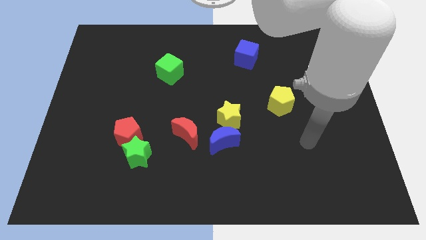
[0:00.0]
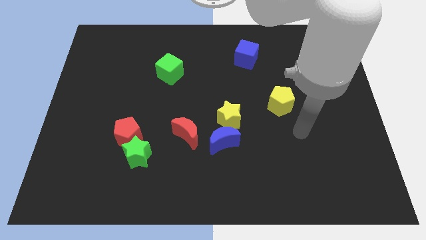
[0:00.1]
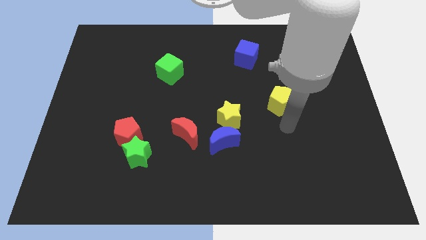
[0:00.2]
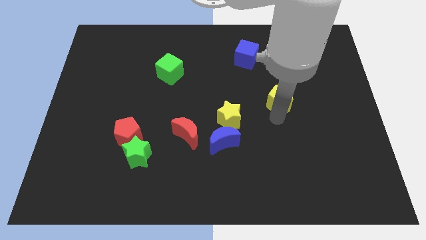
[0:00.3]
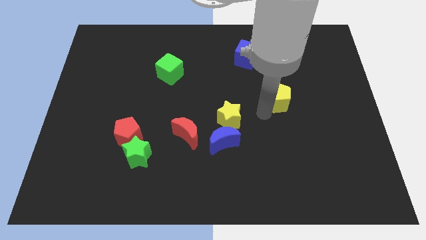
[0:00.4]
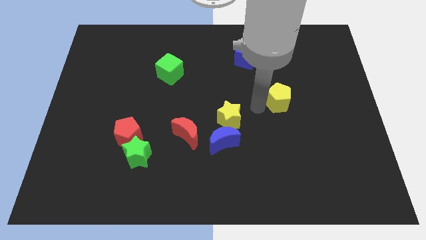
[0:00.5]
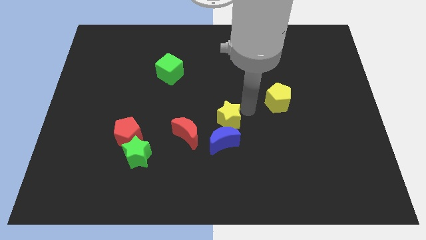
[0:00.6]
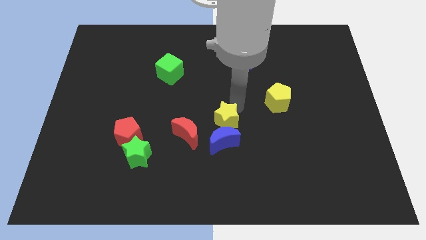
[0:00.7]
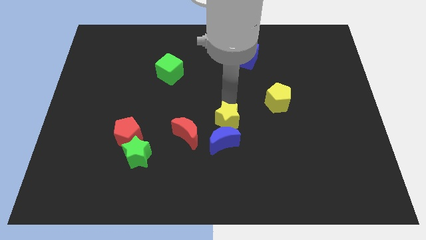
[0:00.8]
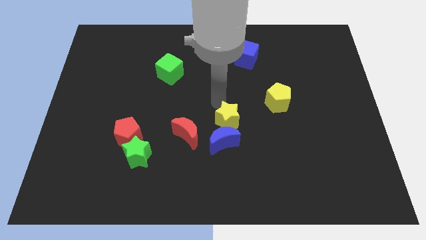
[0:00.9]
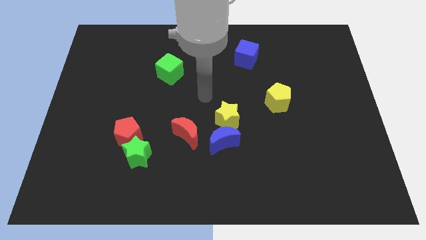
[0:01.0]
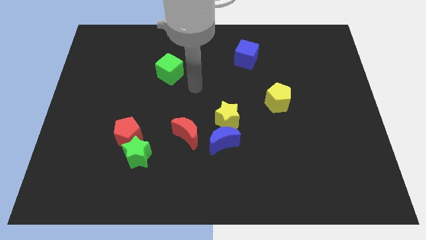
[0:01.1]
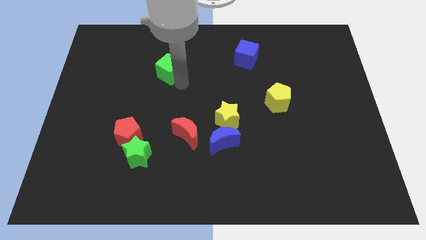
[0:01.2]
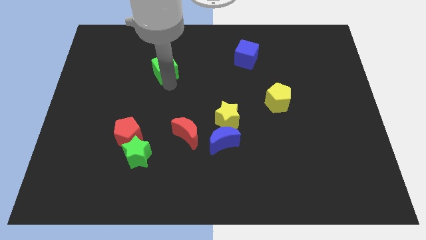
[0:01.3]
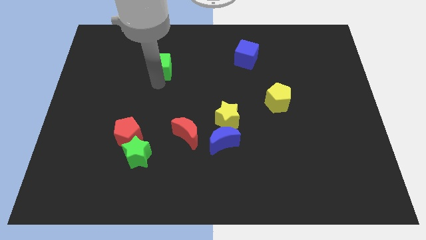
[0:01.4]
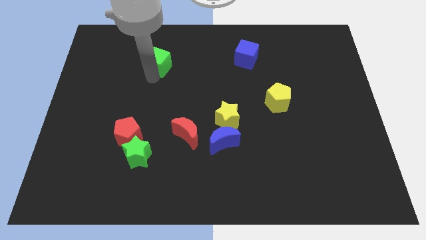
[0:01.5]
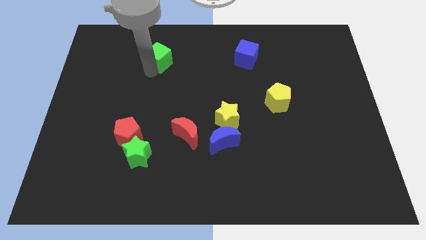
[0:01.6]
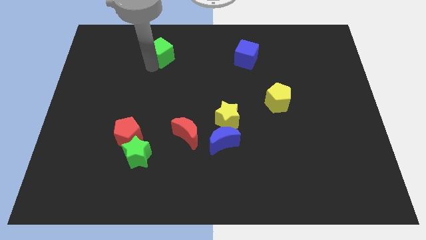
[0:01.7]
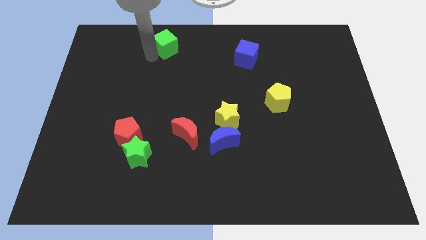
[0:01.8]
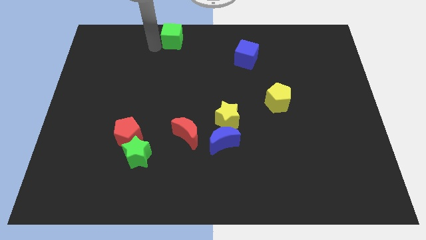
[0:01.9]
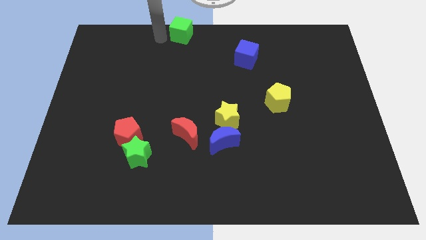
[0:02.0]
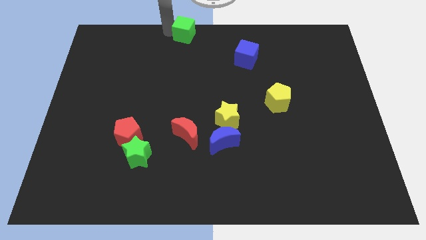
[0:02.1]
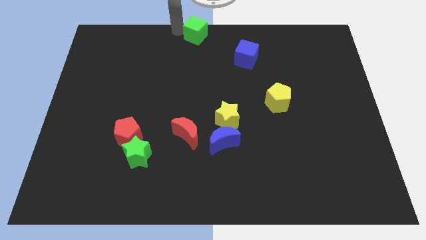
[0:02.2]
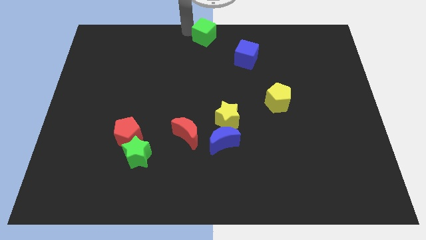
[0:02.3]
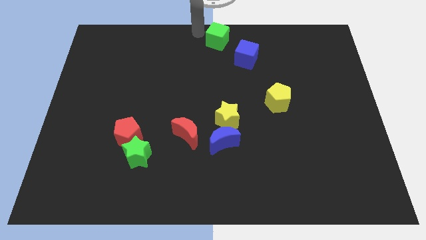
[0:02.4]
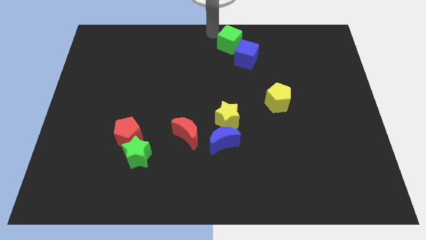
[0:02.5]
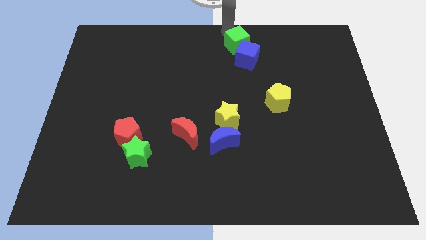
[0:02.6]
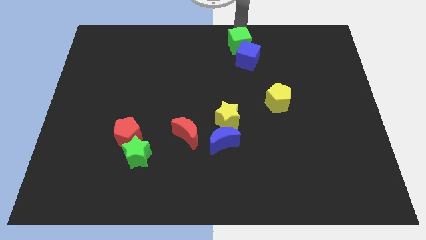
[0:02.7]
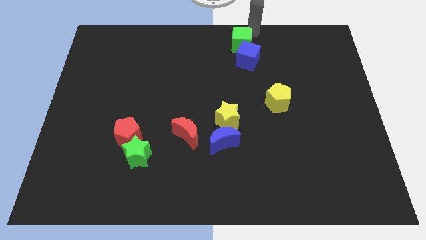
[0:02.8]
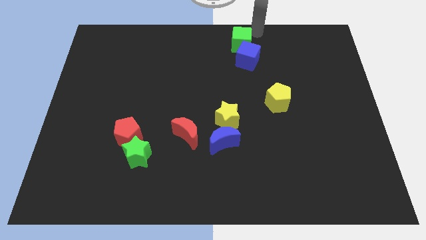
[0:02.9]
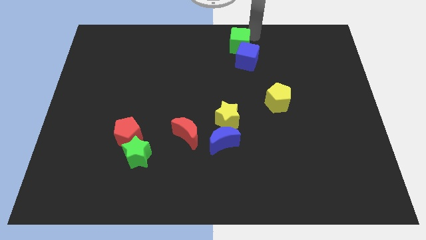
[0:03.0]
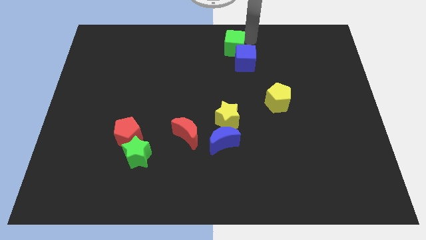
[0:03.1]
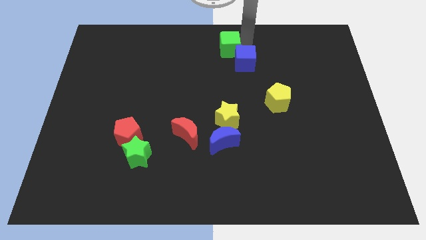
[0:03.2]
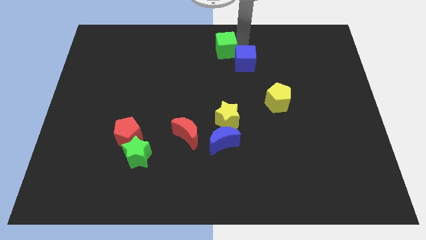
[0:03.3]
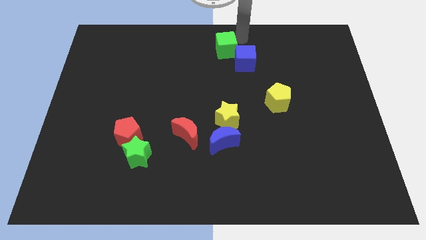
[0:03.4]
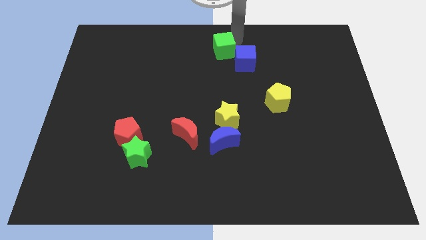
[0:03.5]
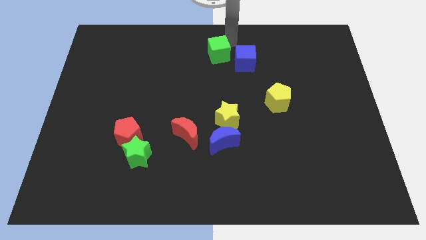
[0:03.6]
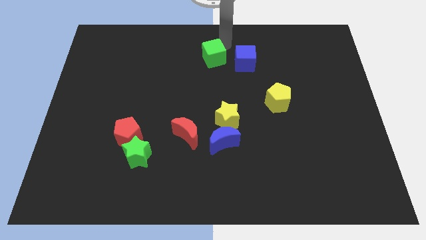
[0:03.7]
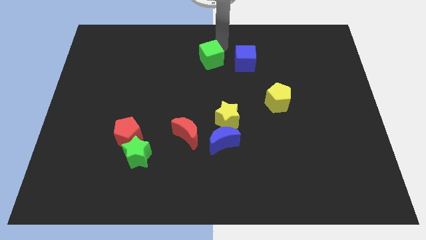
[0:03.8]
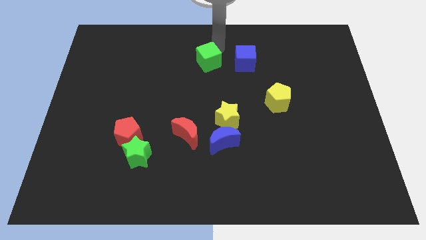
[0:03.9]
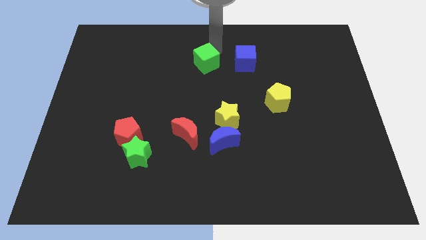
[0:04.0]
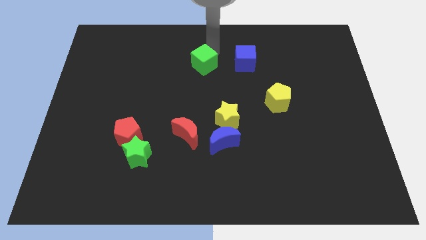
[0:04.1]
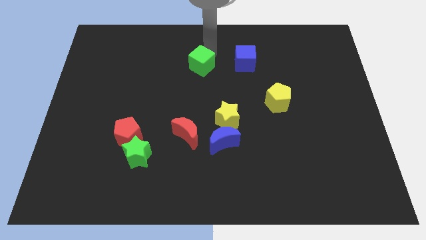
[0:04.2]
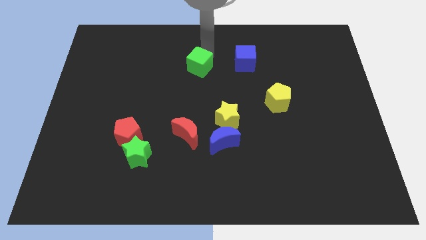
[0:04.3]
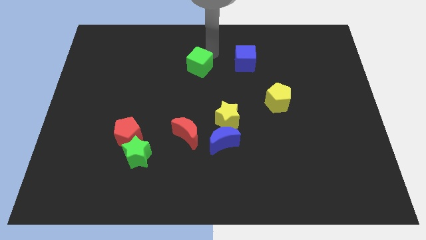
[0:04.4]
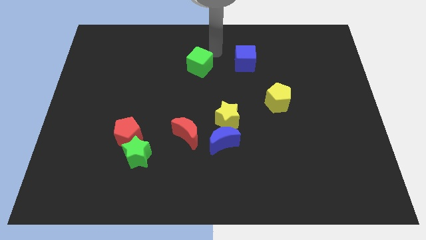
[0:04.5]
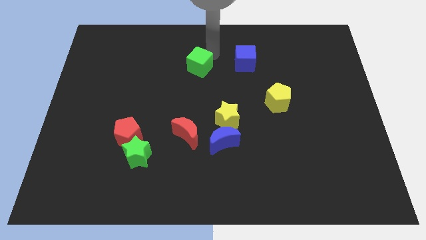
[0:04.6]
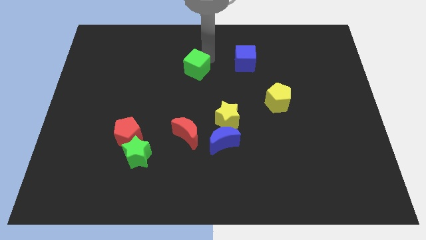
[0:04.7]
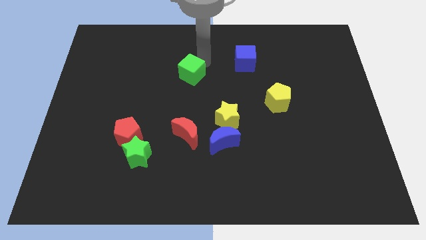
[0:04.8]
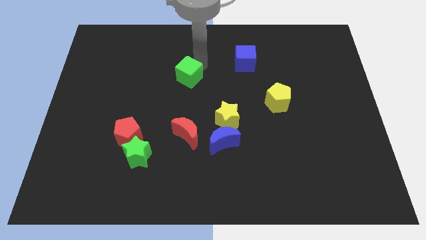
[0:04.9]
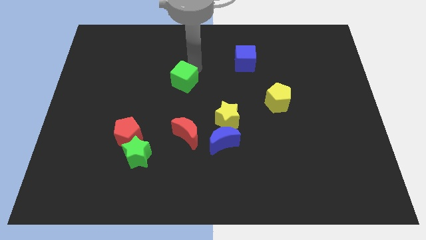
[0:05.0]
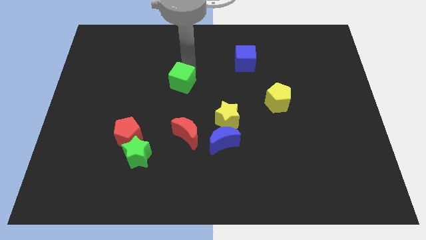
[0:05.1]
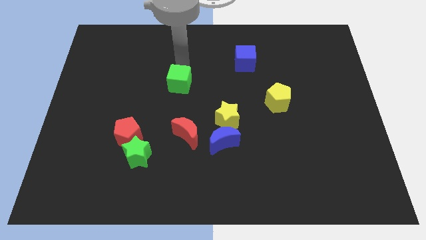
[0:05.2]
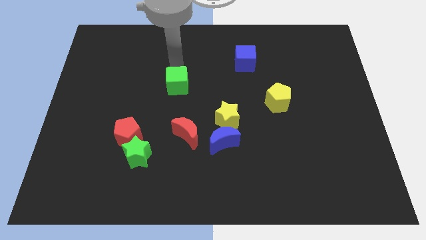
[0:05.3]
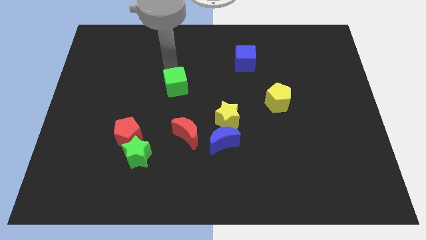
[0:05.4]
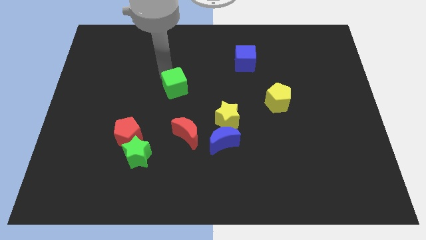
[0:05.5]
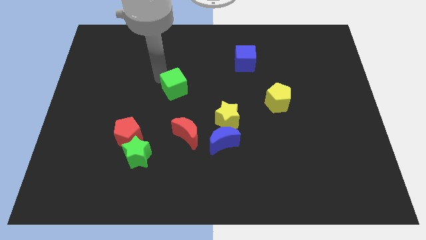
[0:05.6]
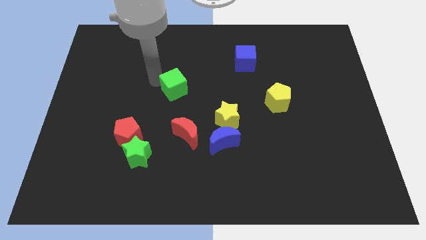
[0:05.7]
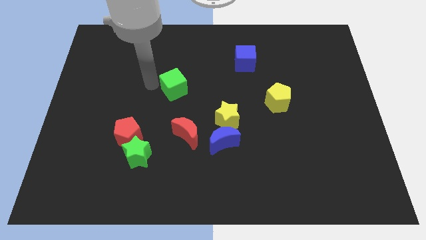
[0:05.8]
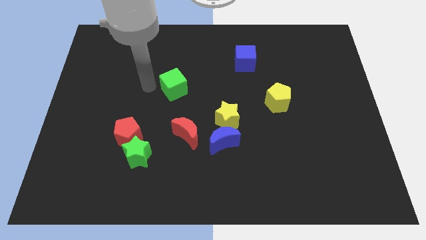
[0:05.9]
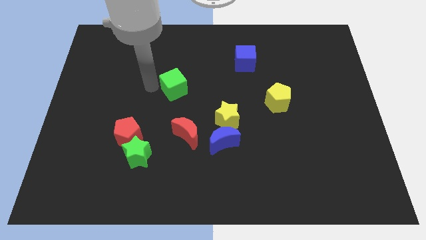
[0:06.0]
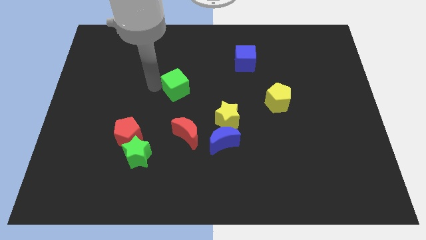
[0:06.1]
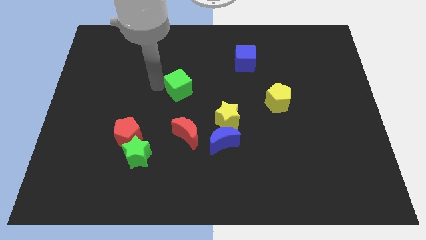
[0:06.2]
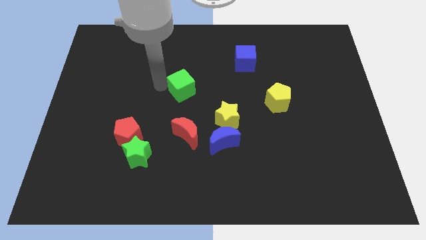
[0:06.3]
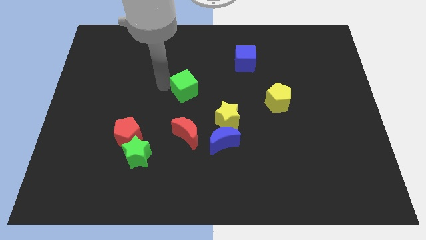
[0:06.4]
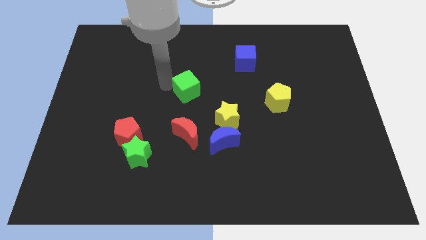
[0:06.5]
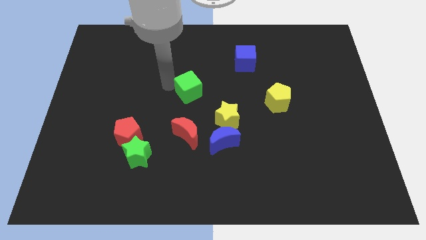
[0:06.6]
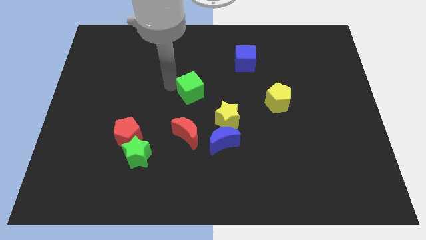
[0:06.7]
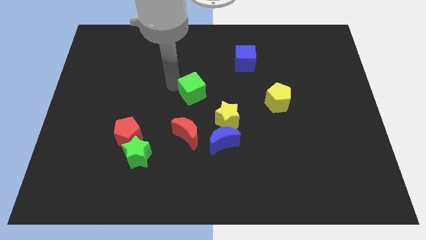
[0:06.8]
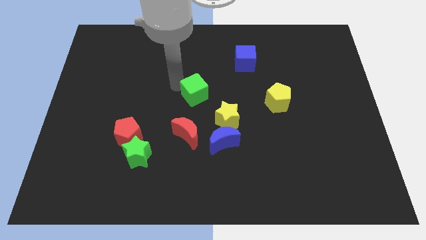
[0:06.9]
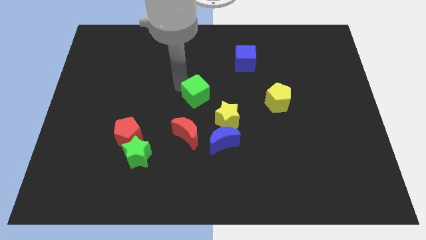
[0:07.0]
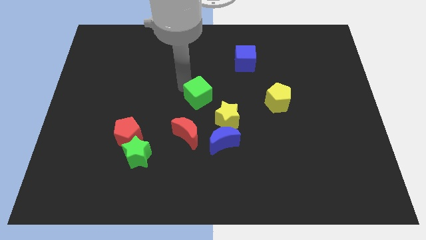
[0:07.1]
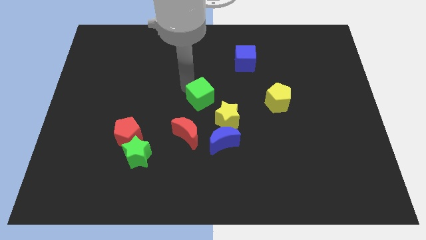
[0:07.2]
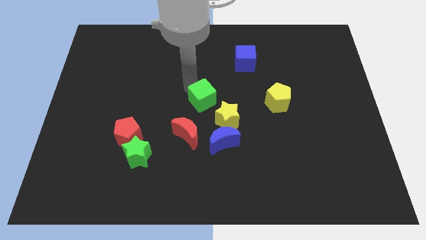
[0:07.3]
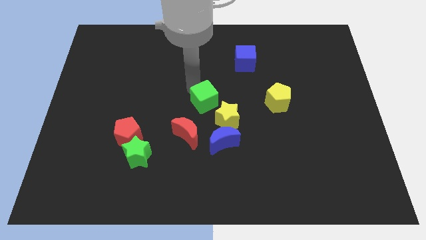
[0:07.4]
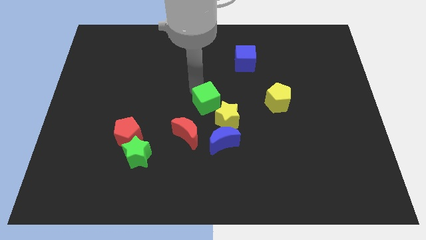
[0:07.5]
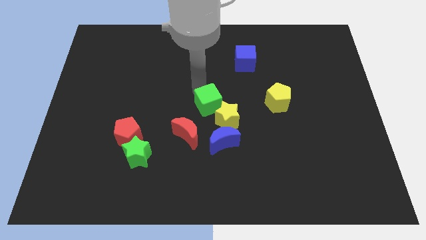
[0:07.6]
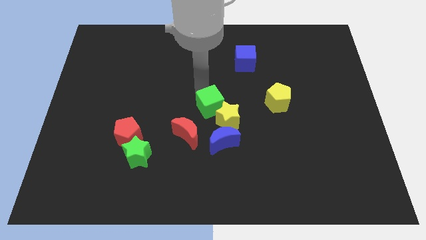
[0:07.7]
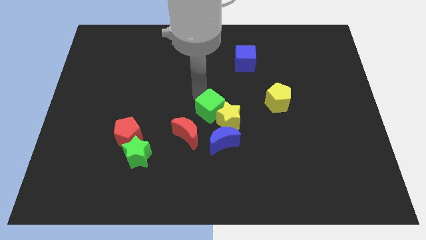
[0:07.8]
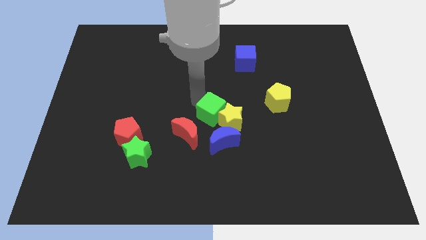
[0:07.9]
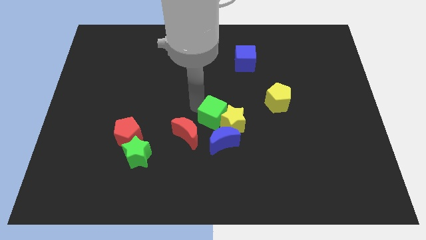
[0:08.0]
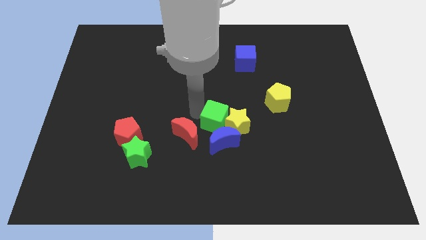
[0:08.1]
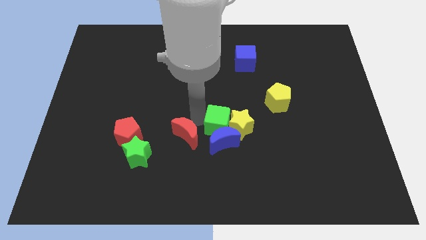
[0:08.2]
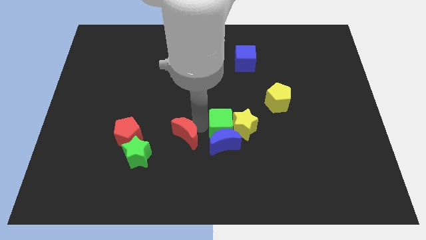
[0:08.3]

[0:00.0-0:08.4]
push the green cube down and to the right
